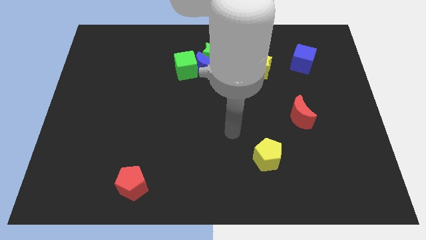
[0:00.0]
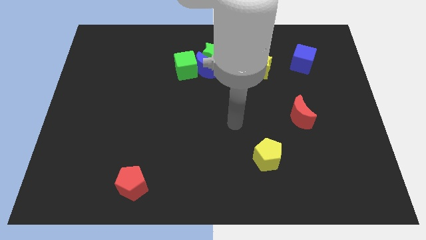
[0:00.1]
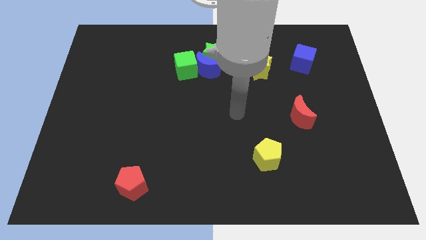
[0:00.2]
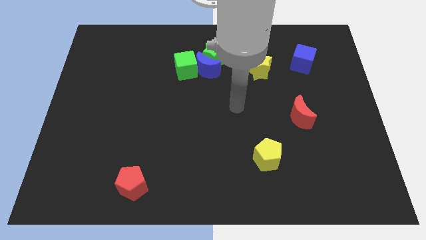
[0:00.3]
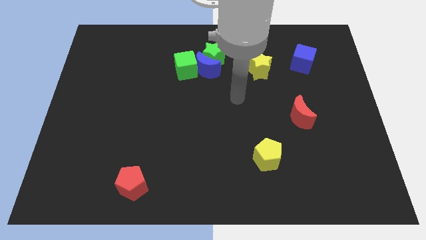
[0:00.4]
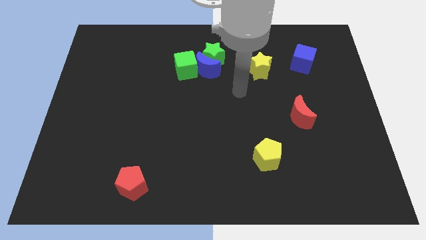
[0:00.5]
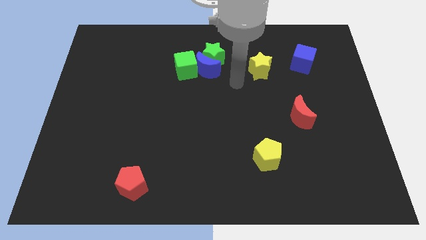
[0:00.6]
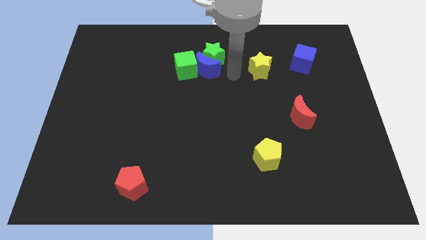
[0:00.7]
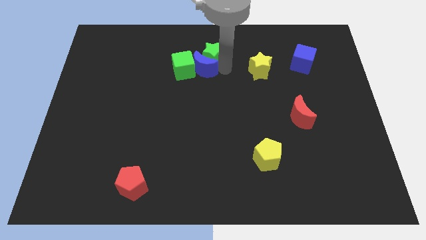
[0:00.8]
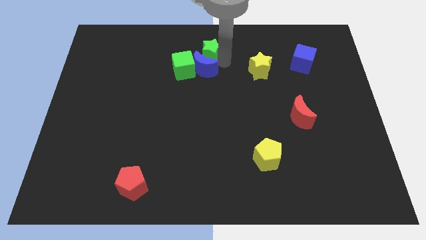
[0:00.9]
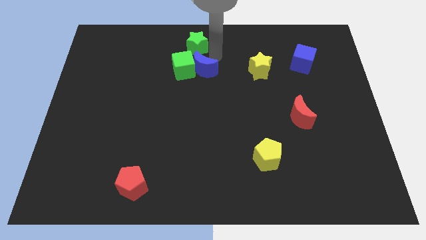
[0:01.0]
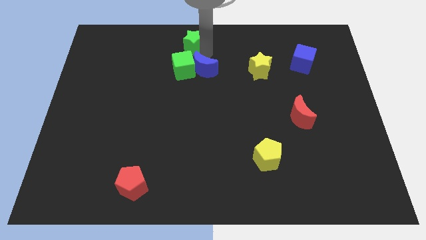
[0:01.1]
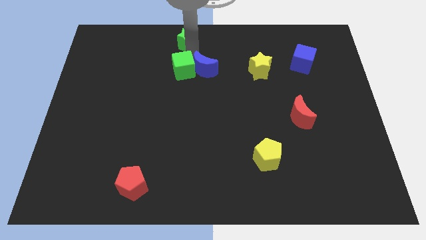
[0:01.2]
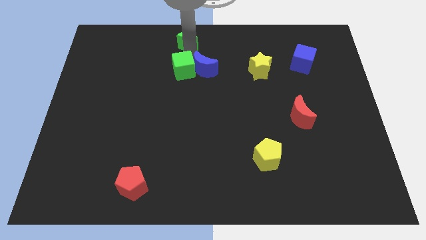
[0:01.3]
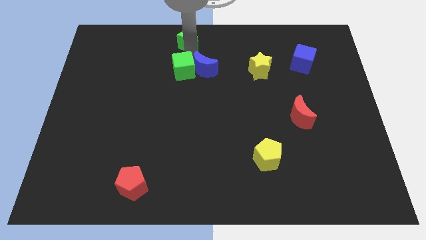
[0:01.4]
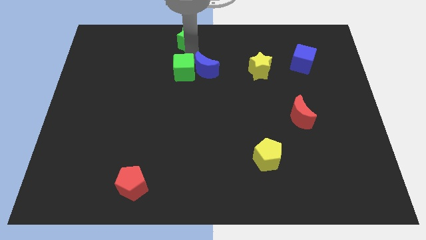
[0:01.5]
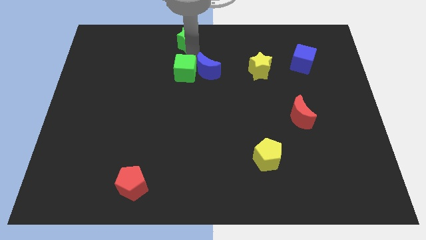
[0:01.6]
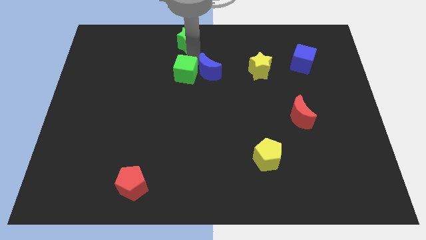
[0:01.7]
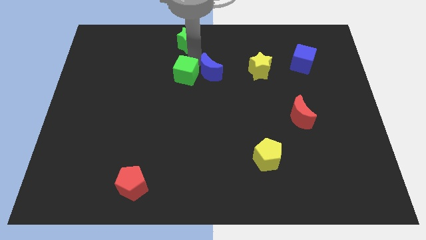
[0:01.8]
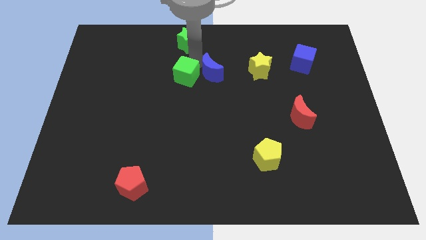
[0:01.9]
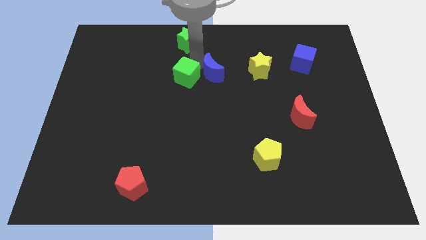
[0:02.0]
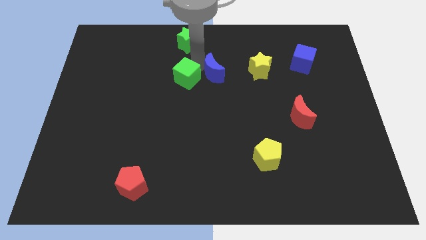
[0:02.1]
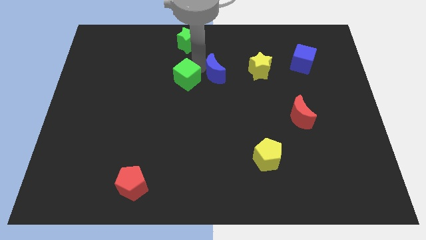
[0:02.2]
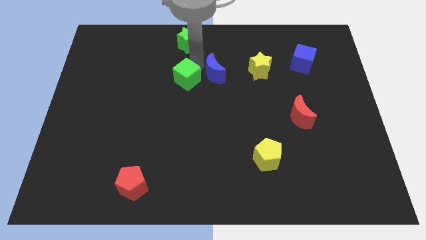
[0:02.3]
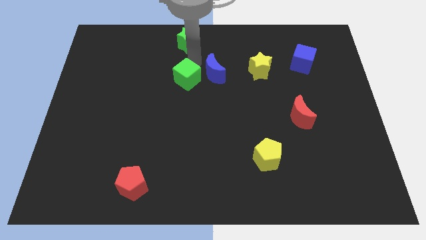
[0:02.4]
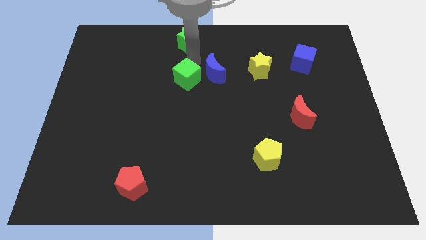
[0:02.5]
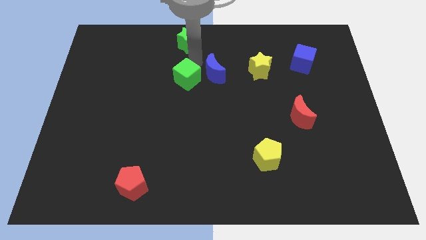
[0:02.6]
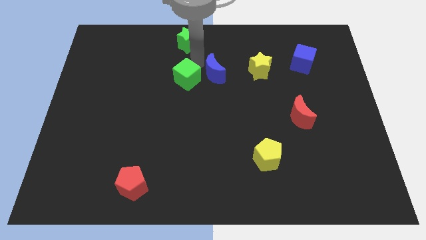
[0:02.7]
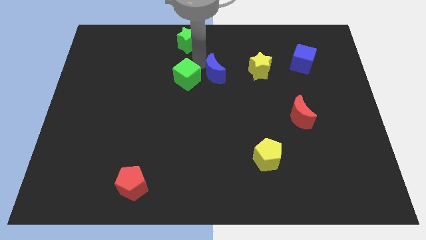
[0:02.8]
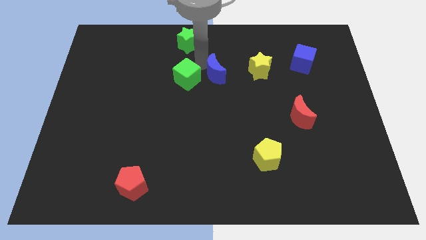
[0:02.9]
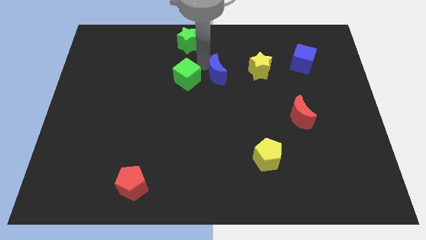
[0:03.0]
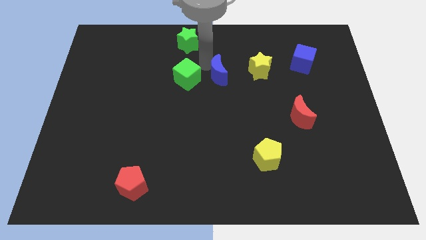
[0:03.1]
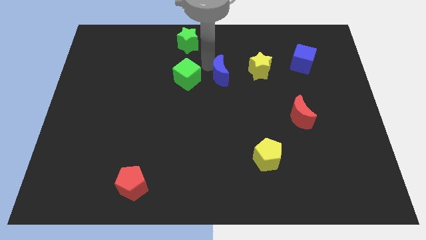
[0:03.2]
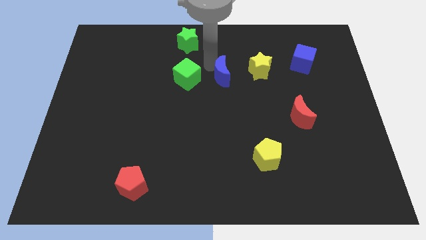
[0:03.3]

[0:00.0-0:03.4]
move the blue moon away from the green star and green cube

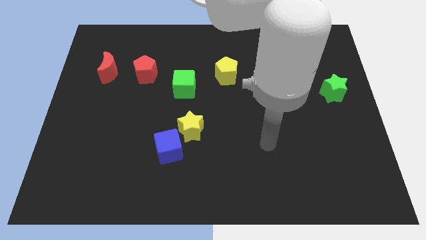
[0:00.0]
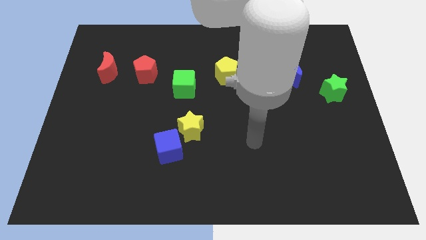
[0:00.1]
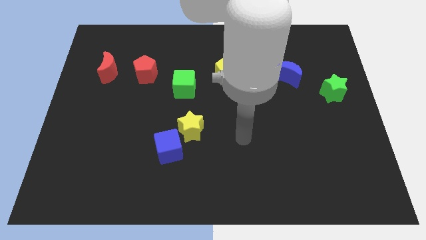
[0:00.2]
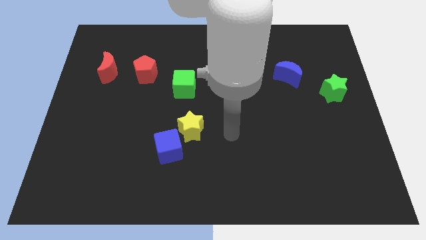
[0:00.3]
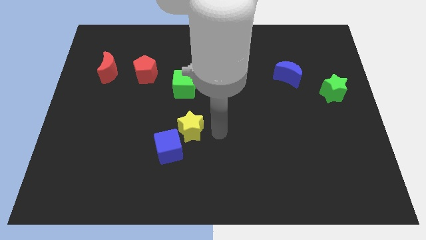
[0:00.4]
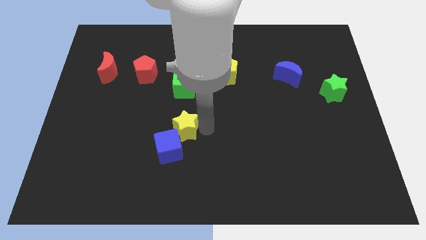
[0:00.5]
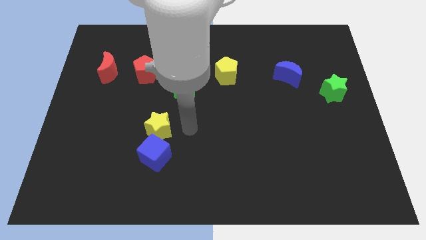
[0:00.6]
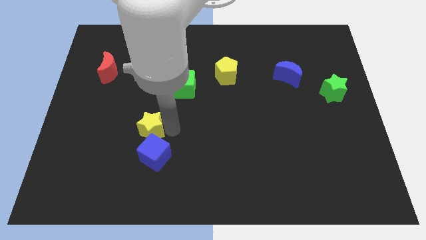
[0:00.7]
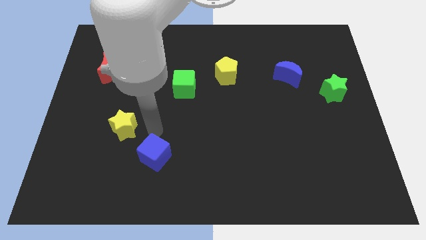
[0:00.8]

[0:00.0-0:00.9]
separate the blue cube from the yellow star

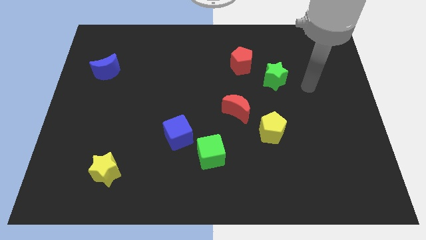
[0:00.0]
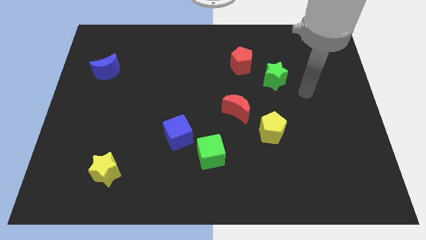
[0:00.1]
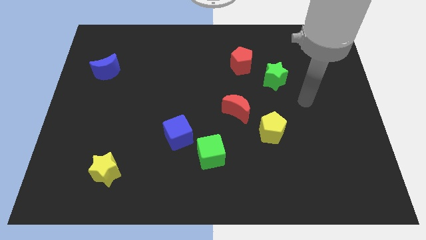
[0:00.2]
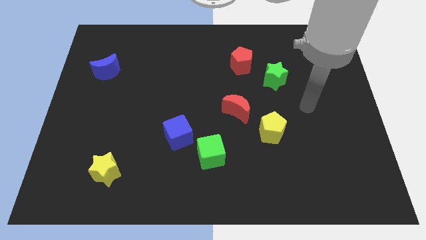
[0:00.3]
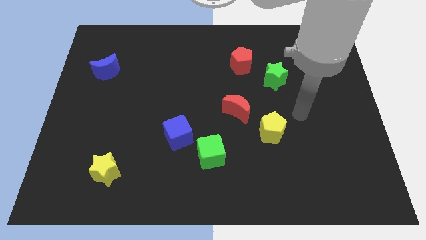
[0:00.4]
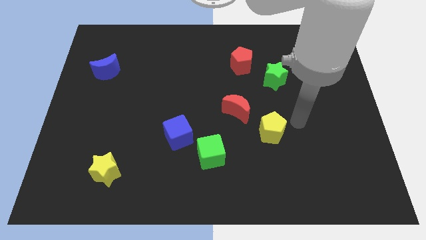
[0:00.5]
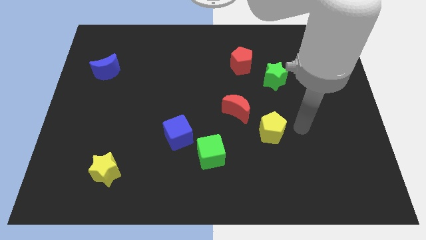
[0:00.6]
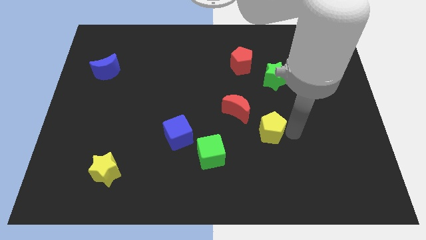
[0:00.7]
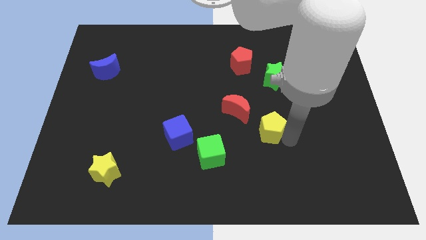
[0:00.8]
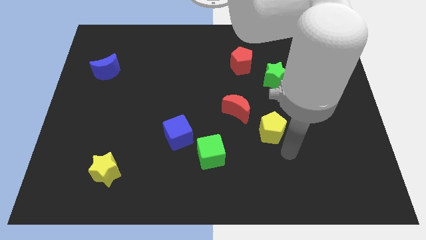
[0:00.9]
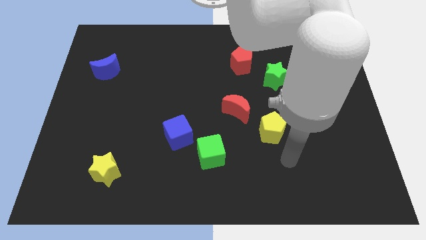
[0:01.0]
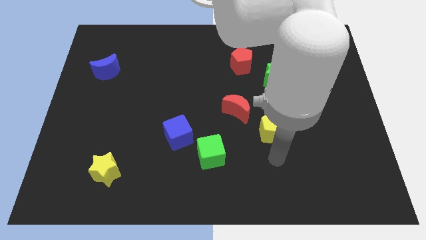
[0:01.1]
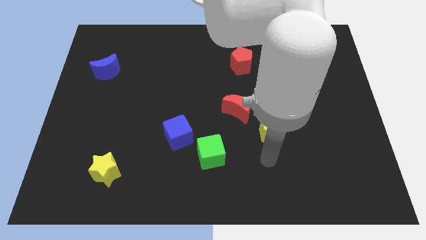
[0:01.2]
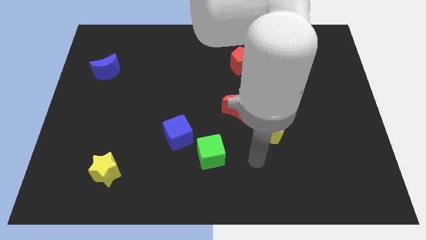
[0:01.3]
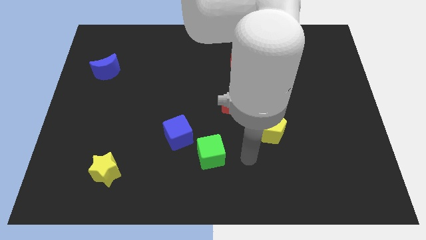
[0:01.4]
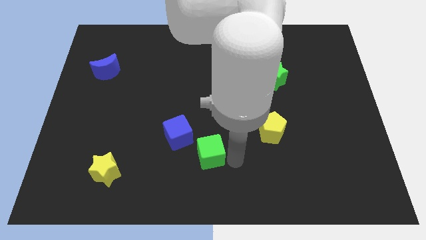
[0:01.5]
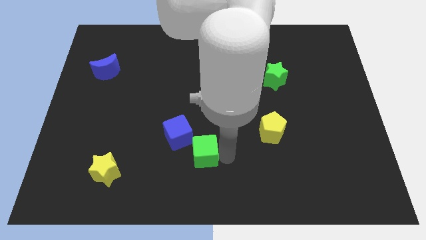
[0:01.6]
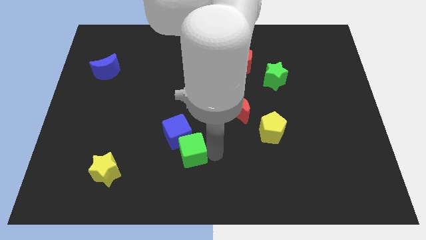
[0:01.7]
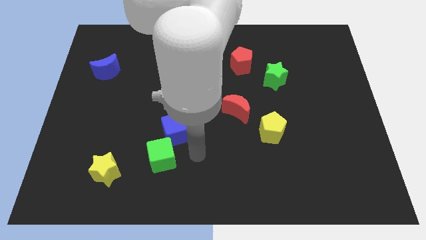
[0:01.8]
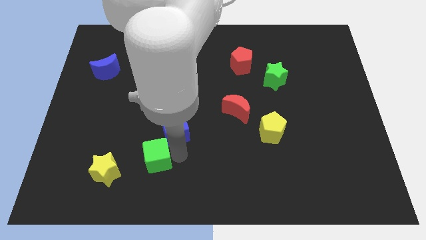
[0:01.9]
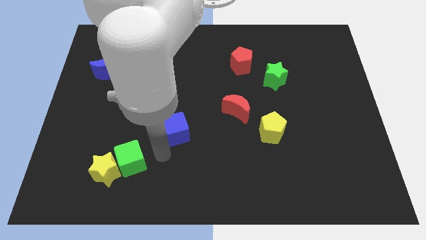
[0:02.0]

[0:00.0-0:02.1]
separate the blue cube from the green cube

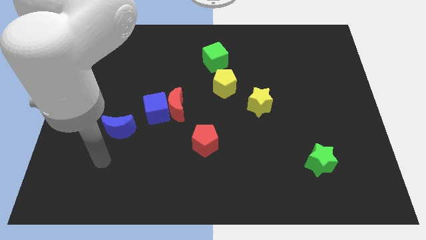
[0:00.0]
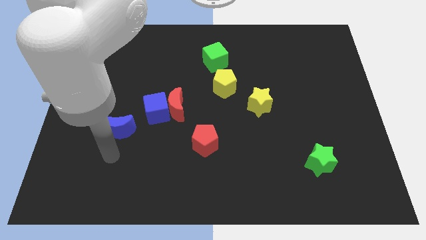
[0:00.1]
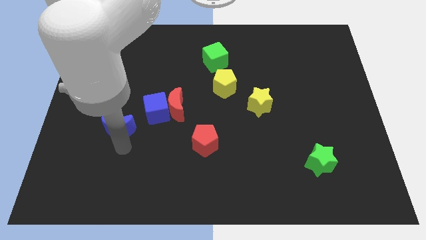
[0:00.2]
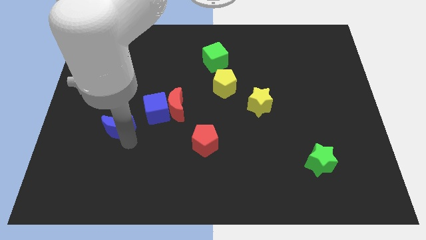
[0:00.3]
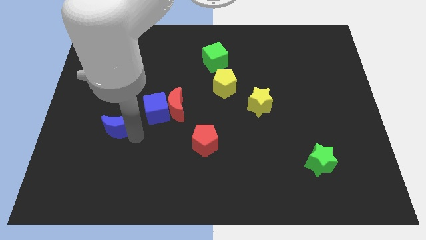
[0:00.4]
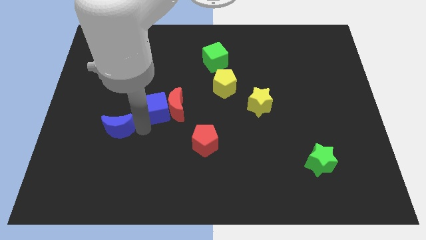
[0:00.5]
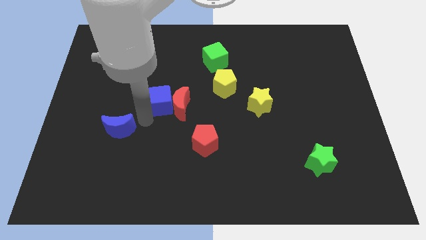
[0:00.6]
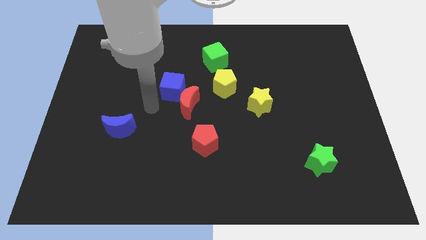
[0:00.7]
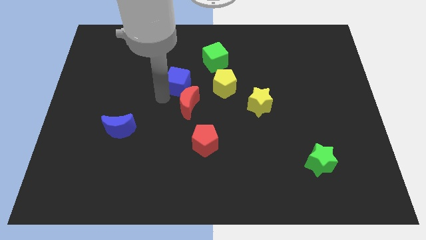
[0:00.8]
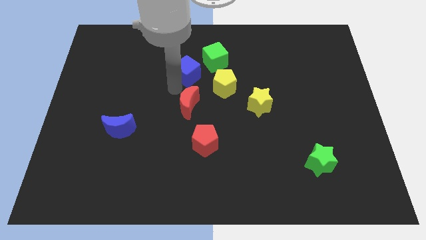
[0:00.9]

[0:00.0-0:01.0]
separate the red moon from the blue cube

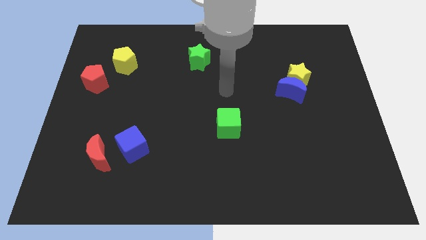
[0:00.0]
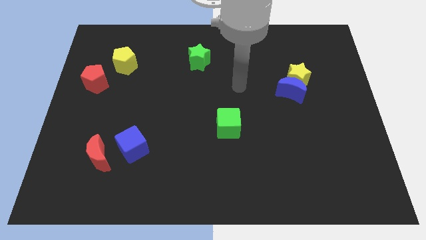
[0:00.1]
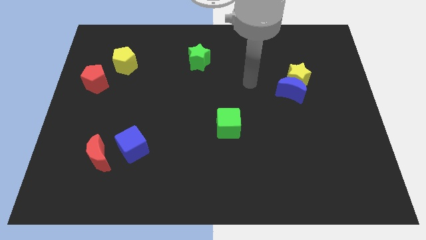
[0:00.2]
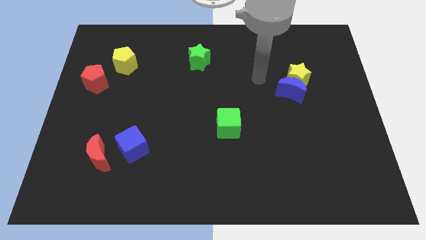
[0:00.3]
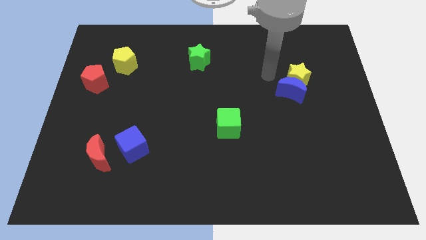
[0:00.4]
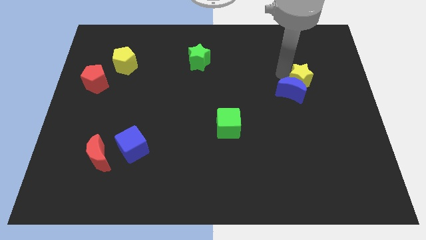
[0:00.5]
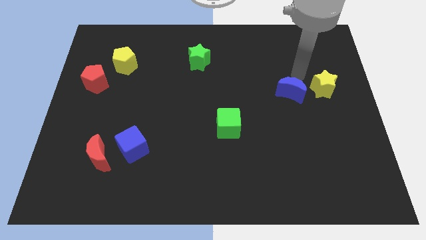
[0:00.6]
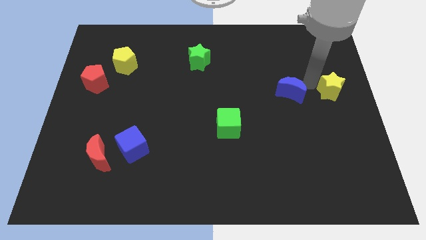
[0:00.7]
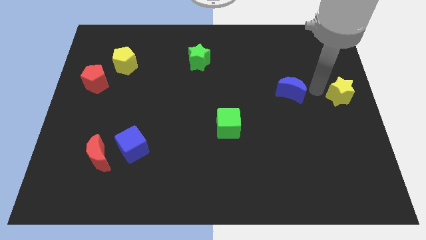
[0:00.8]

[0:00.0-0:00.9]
pull the blue moon apart from the yellow star

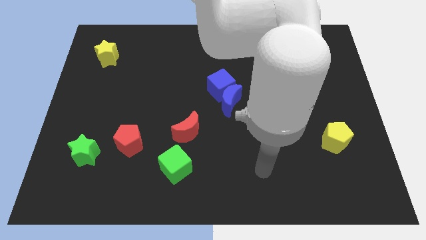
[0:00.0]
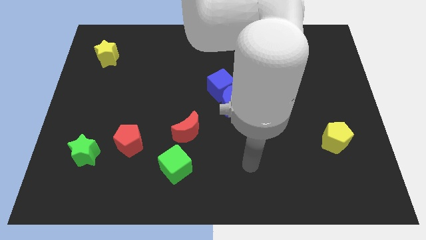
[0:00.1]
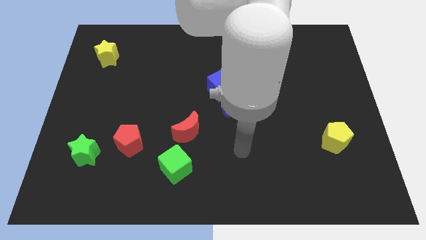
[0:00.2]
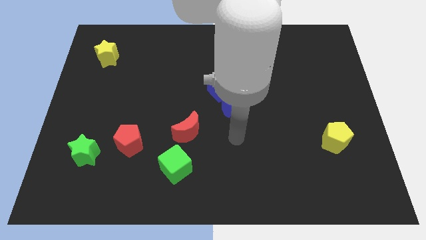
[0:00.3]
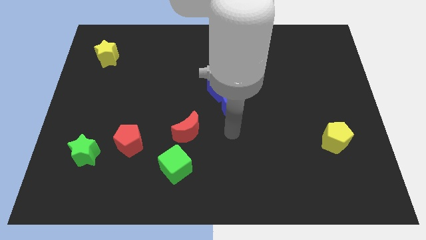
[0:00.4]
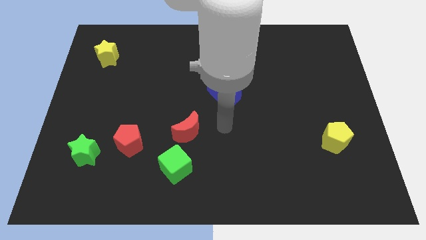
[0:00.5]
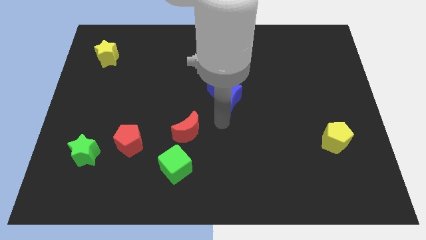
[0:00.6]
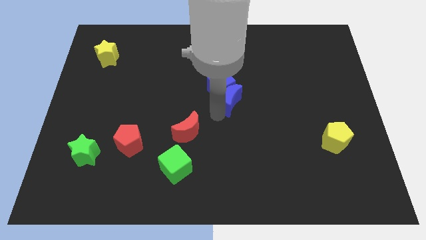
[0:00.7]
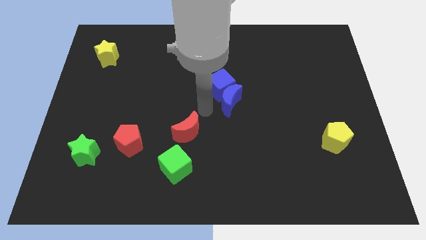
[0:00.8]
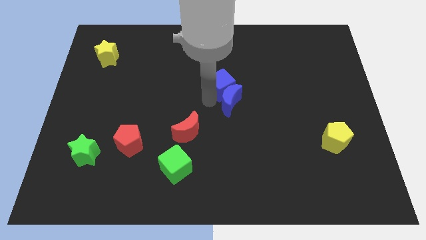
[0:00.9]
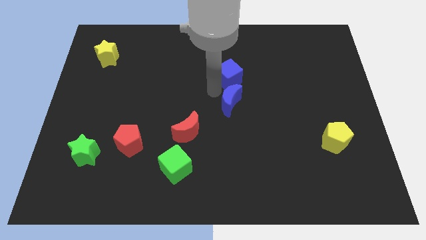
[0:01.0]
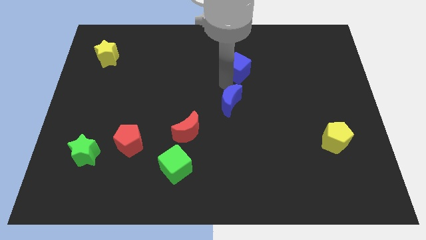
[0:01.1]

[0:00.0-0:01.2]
separate the blue moon from the blue cube
